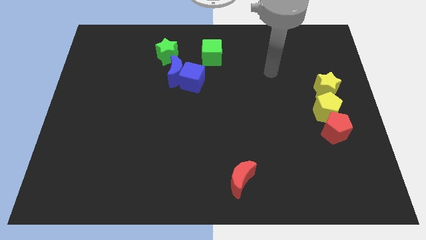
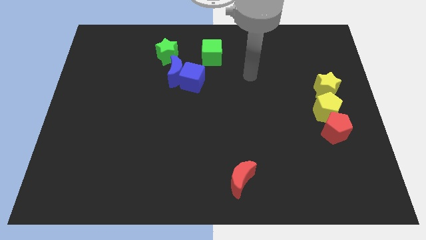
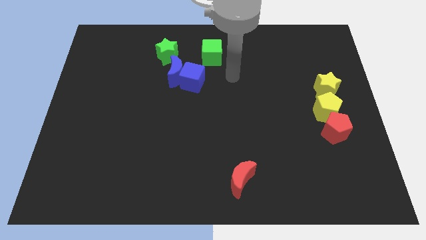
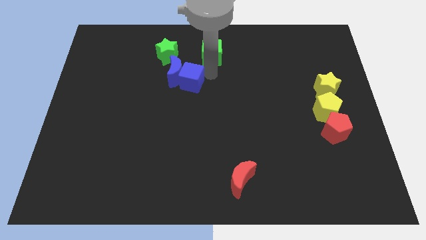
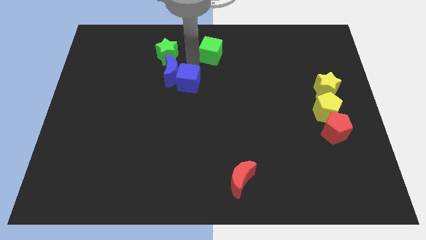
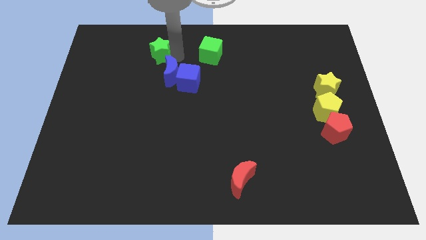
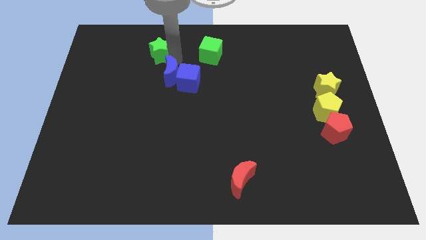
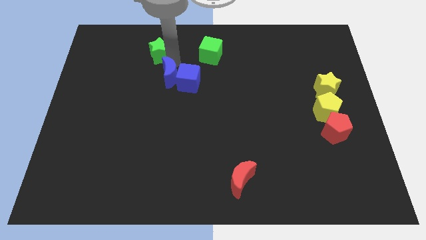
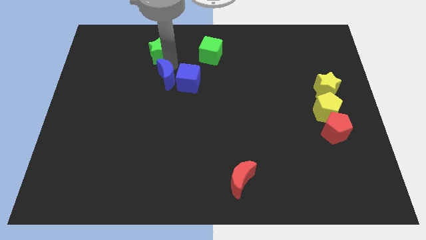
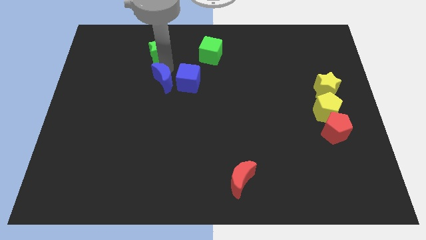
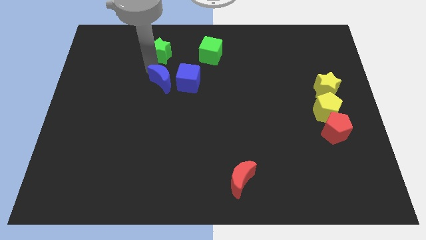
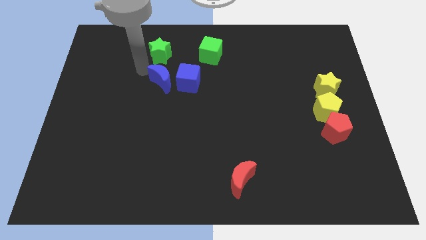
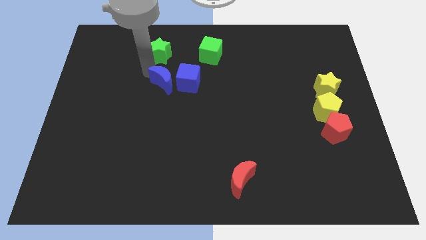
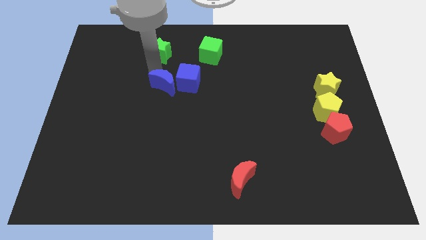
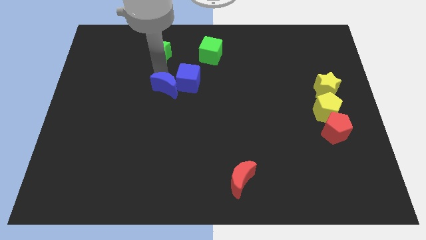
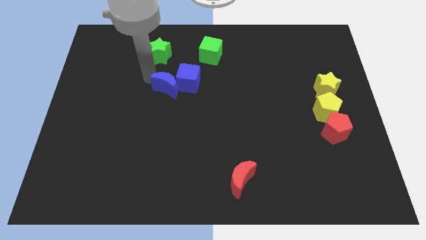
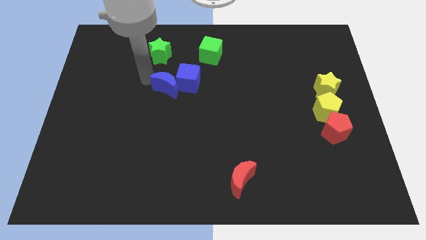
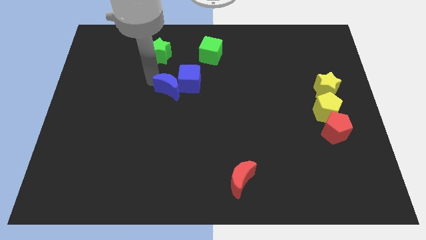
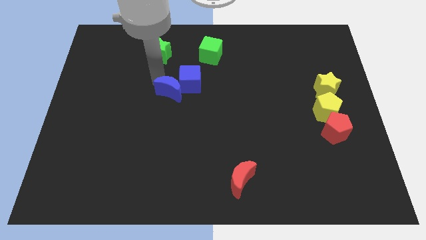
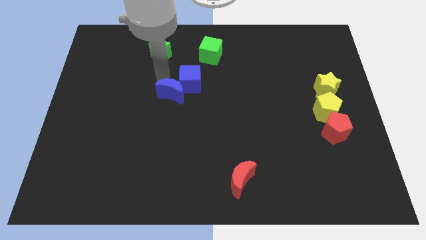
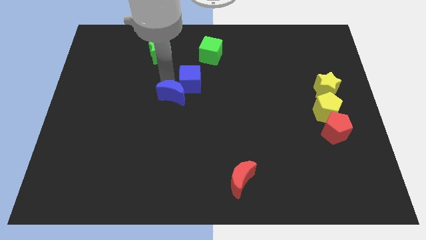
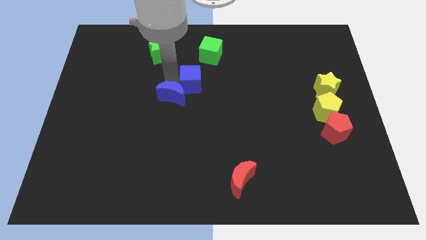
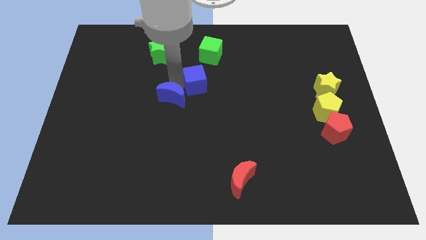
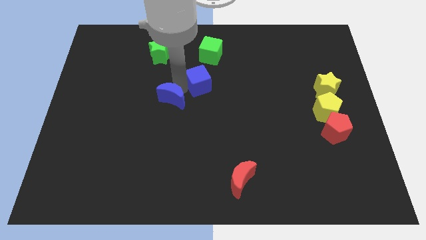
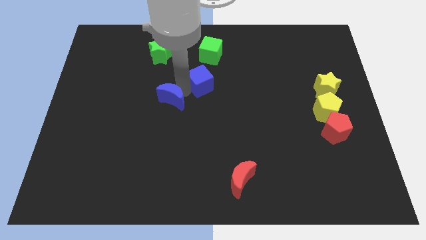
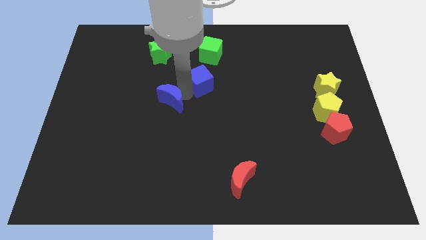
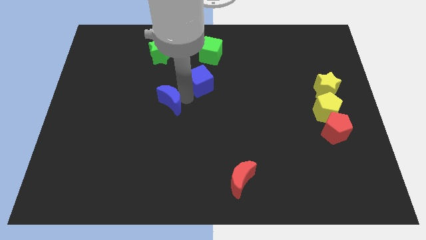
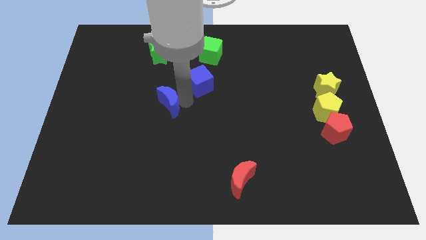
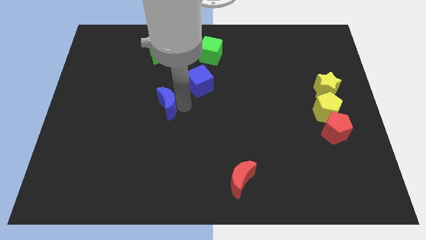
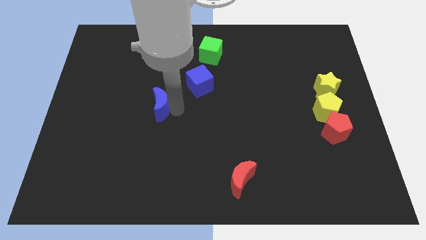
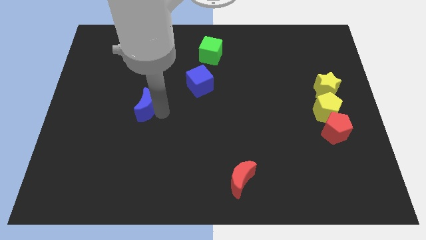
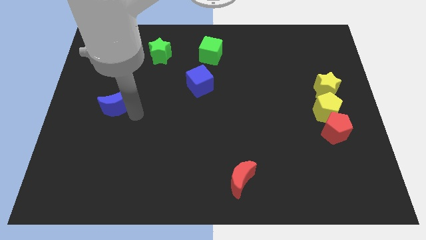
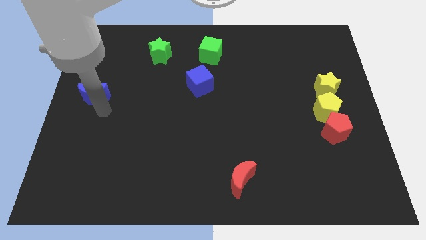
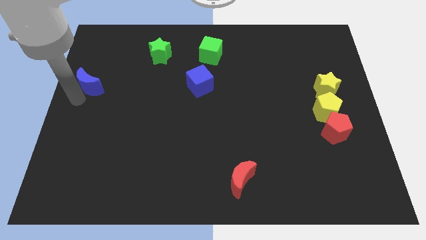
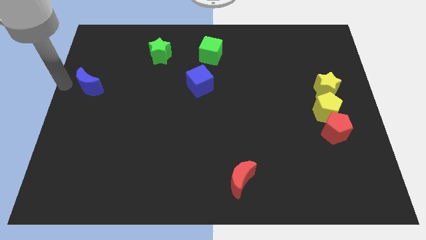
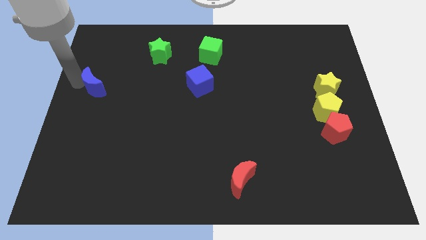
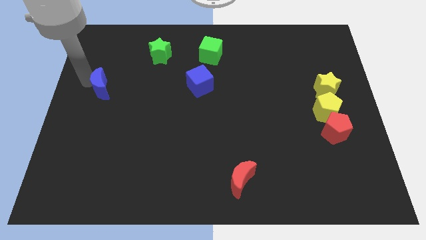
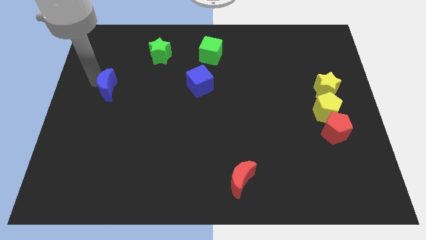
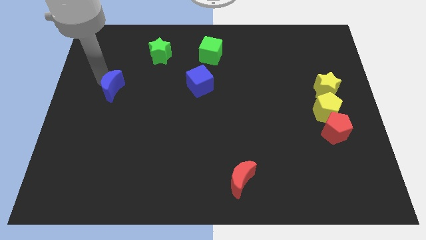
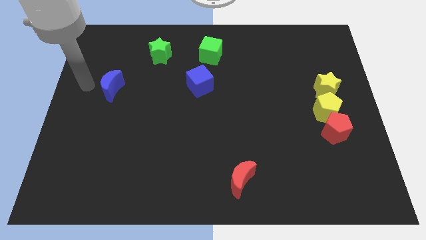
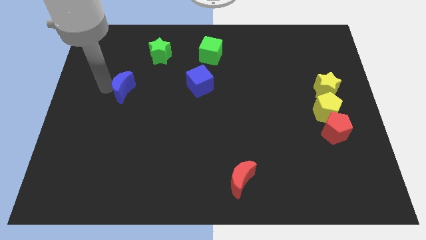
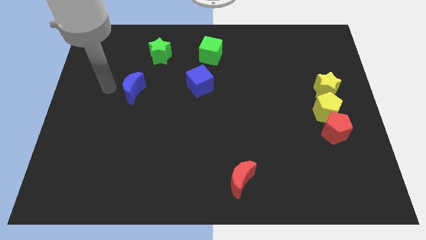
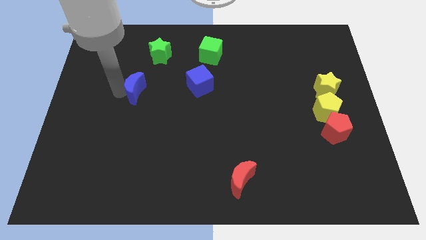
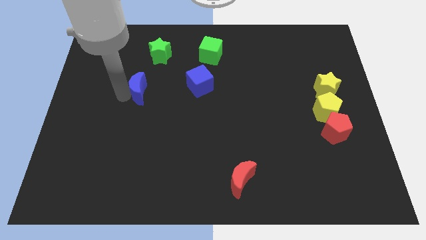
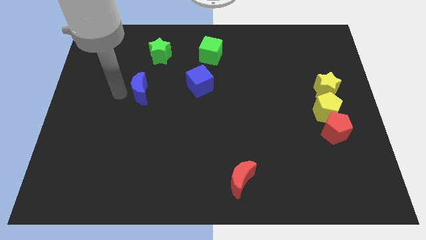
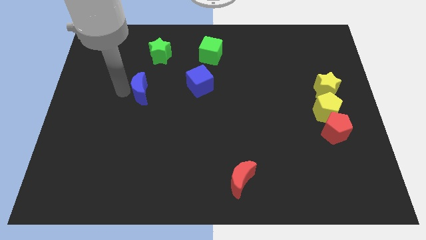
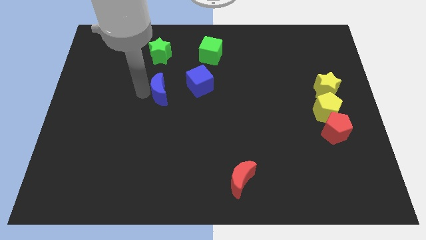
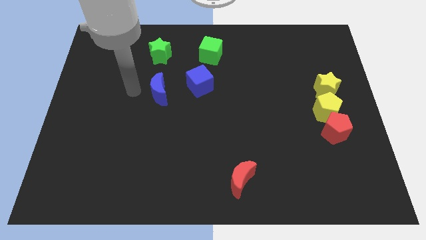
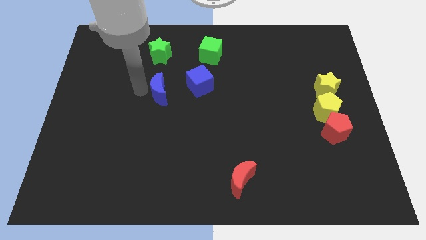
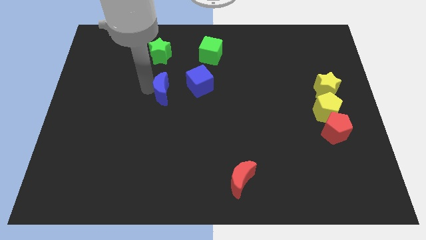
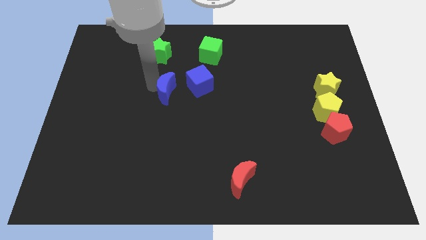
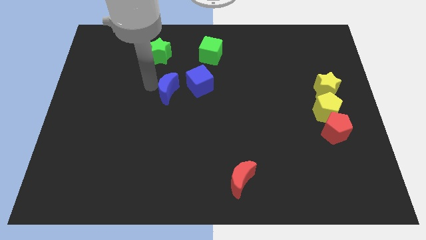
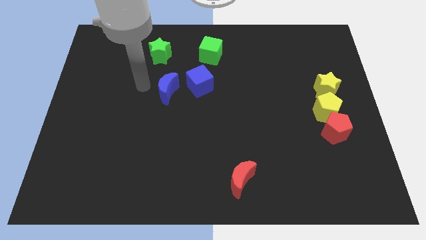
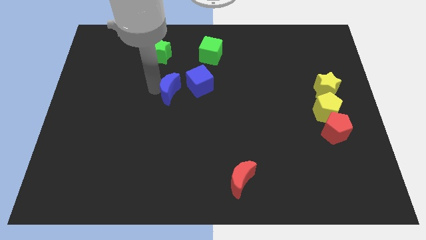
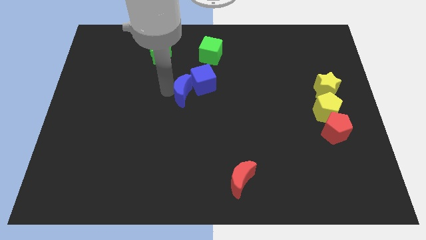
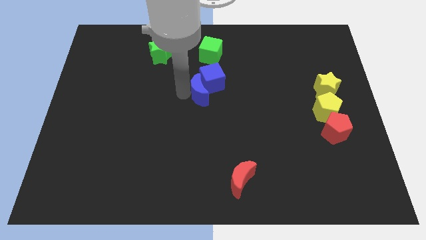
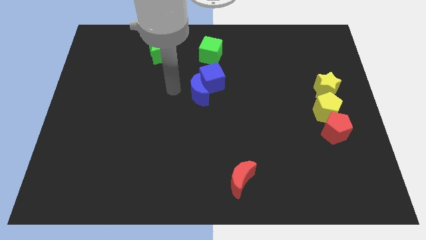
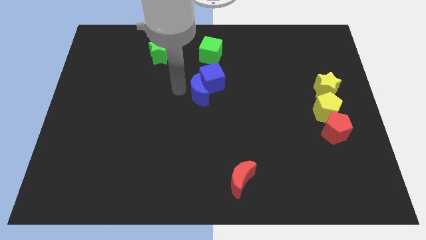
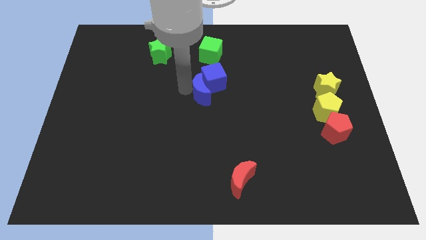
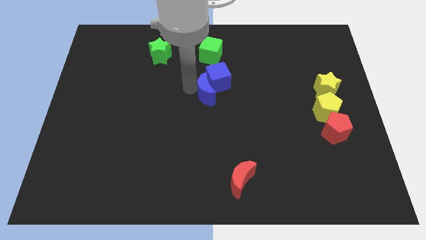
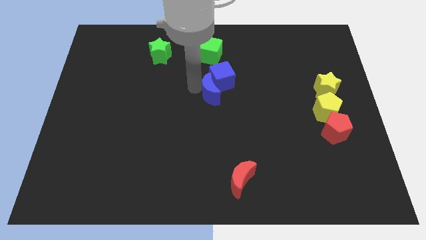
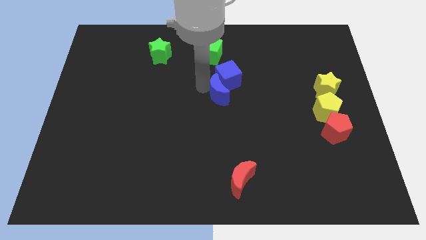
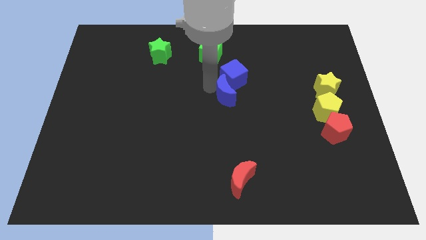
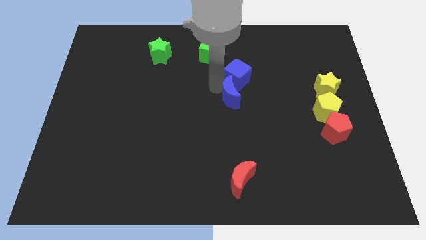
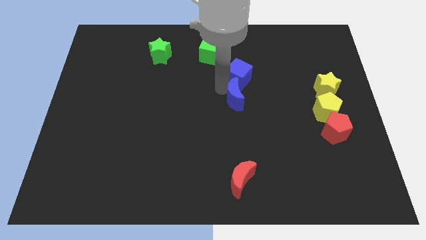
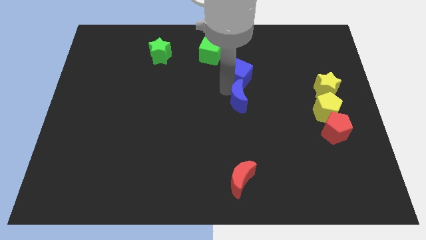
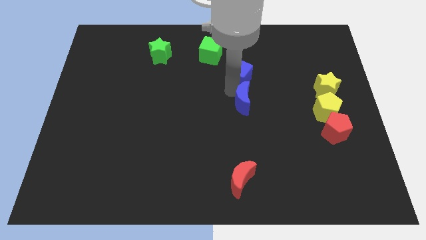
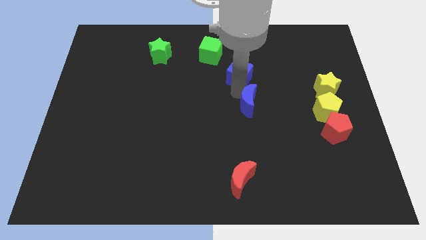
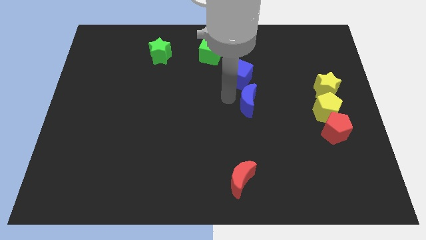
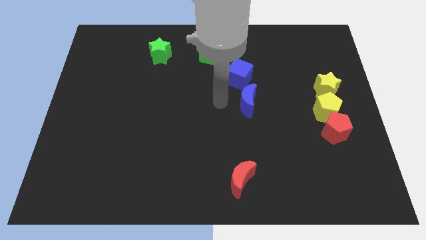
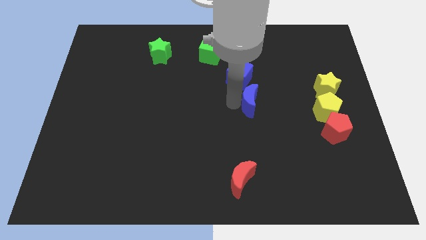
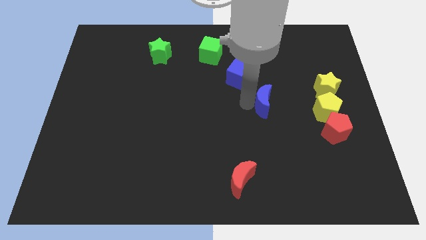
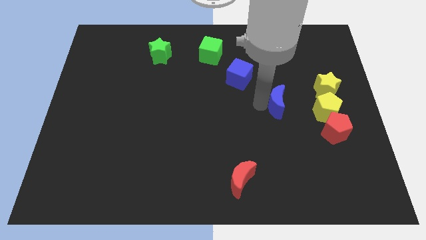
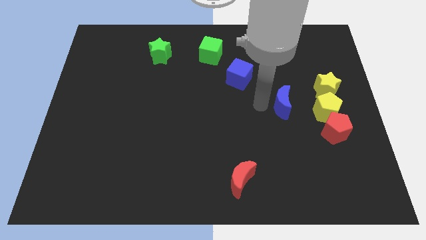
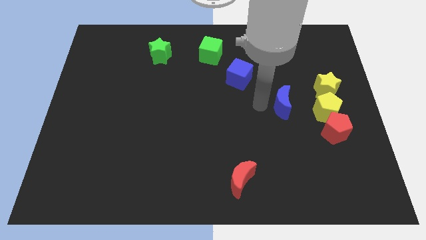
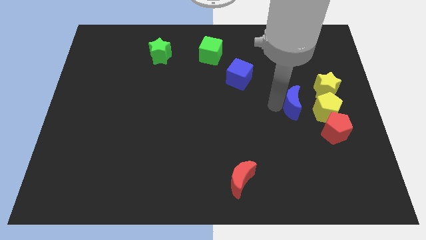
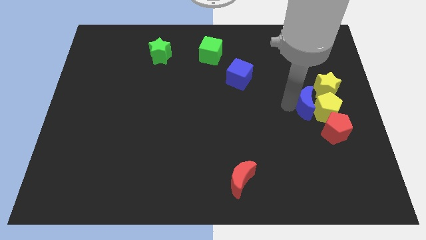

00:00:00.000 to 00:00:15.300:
push the blue moon towards the yellow pentagon

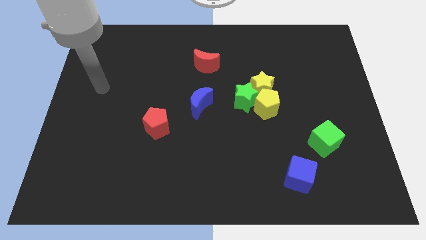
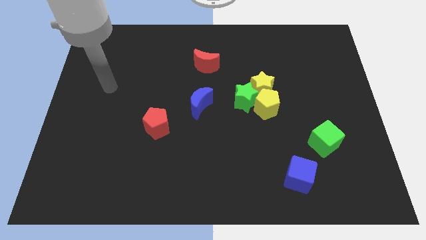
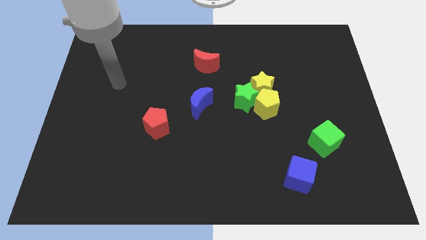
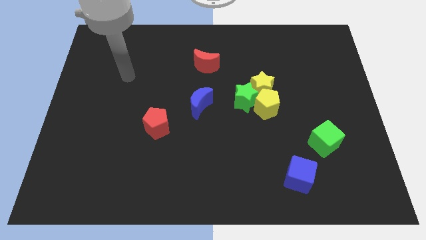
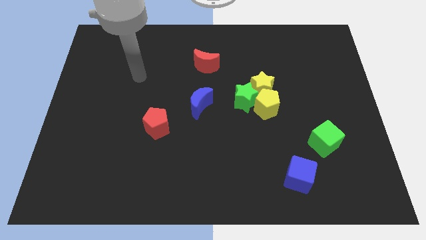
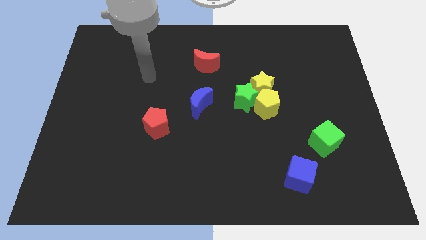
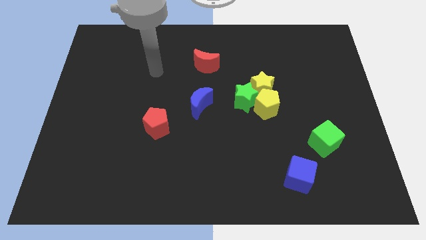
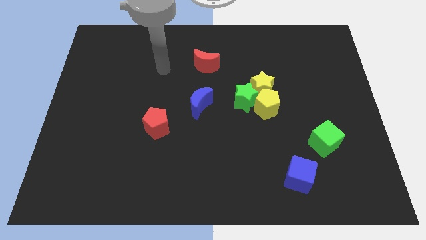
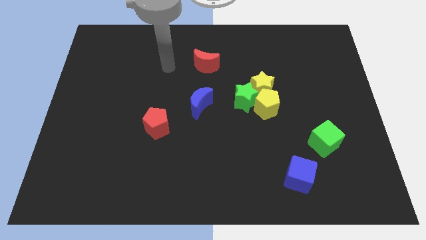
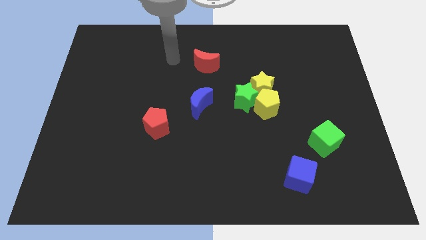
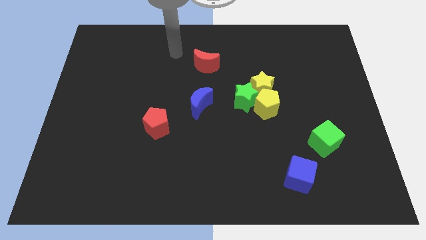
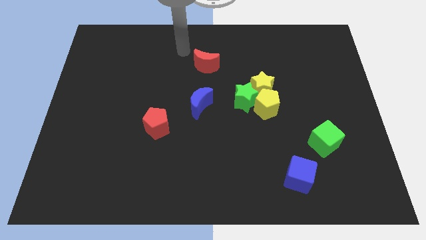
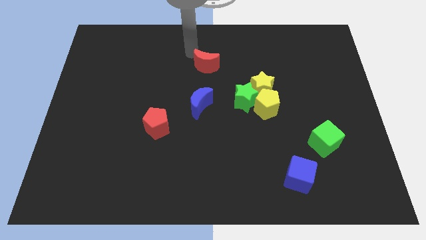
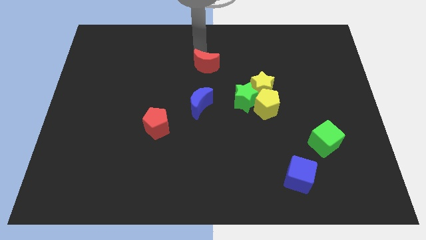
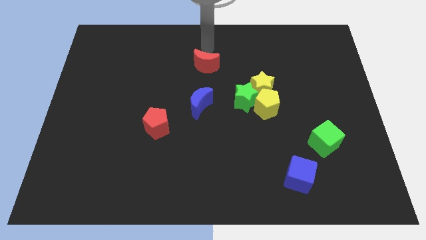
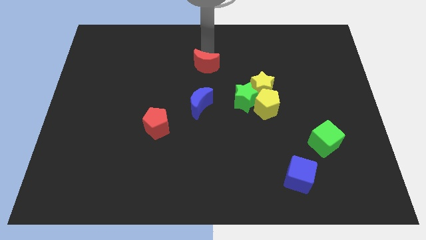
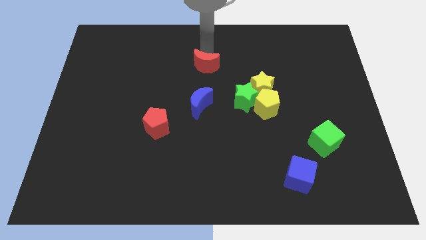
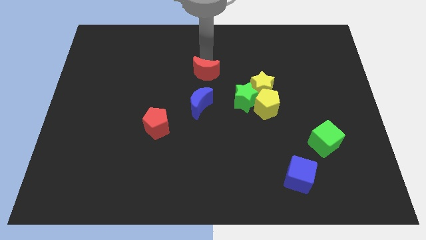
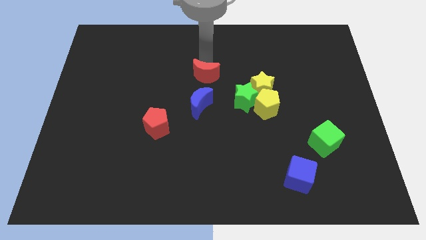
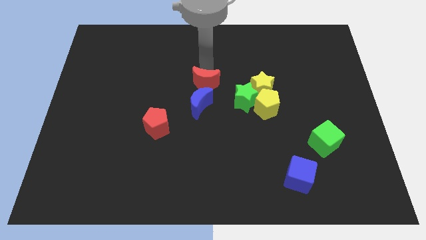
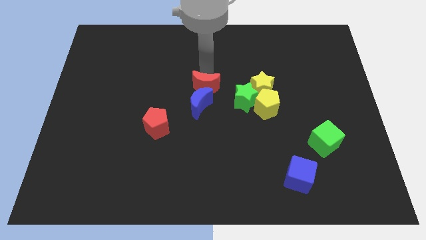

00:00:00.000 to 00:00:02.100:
put the red moon to the blue moon
